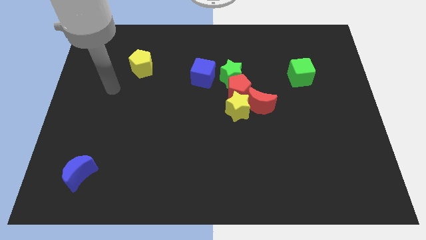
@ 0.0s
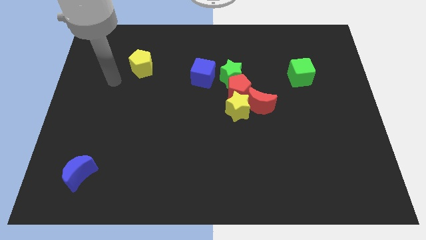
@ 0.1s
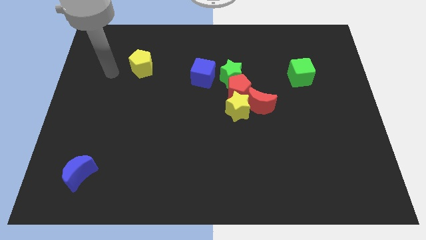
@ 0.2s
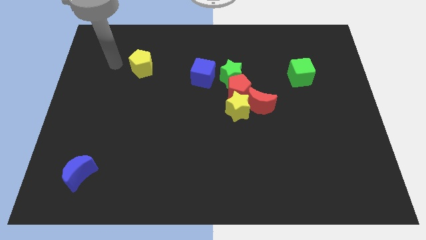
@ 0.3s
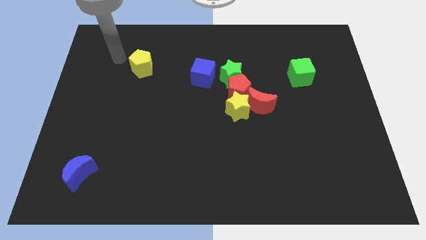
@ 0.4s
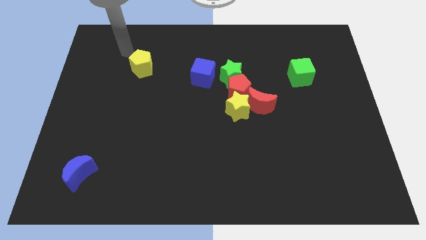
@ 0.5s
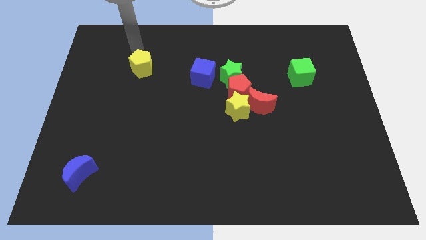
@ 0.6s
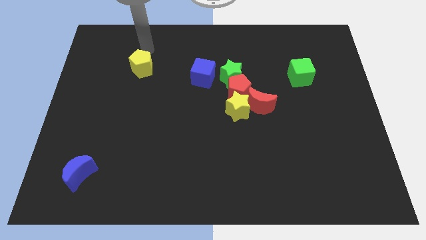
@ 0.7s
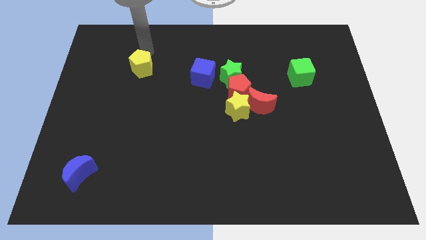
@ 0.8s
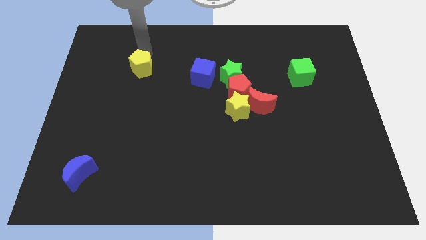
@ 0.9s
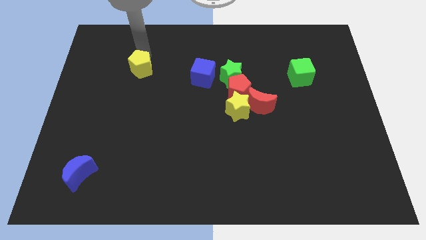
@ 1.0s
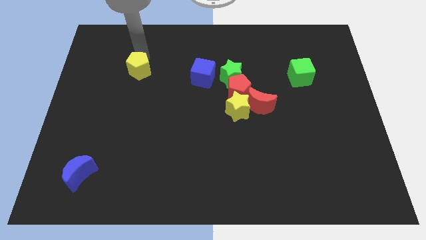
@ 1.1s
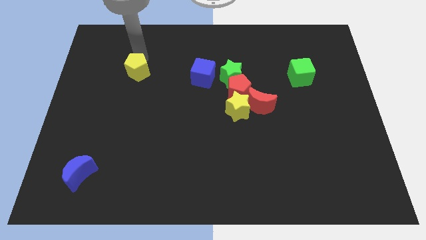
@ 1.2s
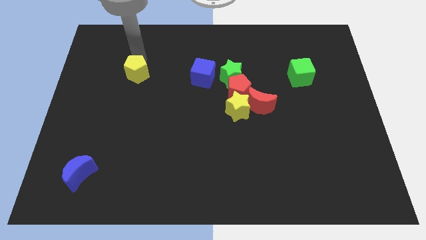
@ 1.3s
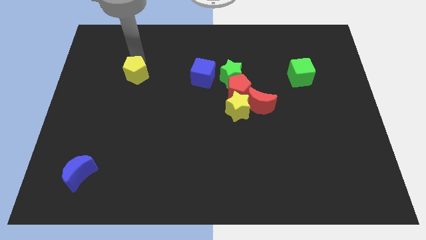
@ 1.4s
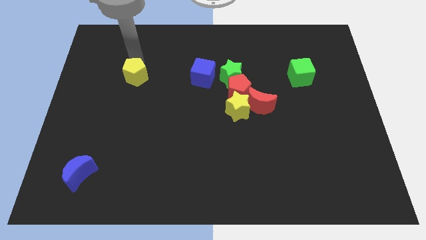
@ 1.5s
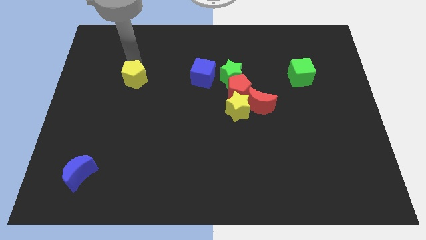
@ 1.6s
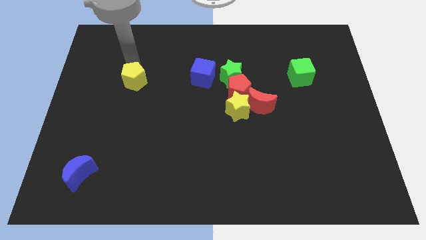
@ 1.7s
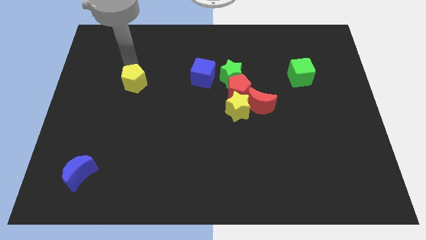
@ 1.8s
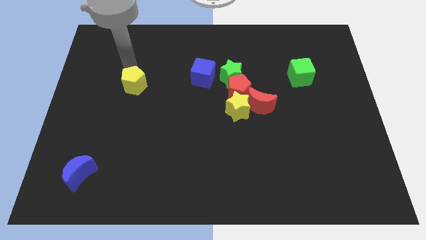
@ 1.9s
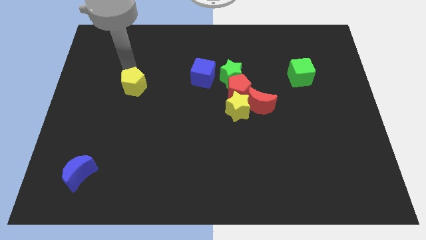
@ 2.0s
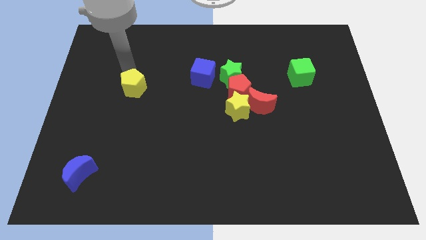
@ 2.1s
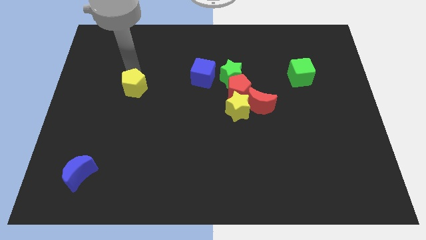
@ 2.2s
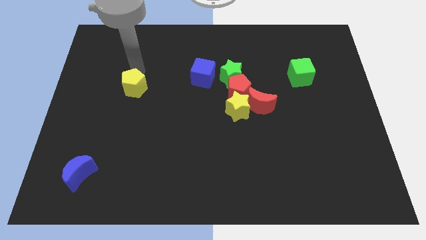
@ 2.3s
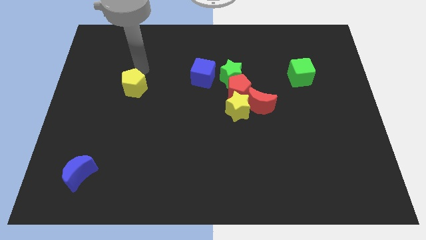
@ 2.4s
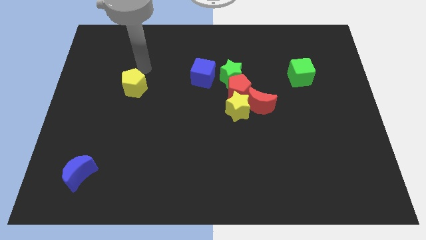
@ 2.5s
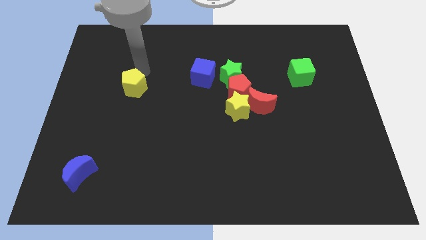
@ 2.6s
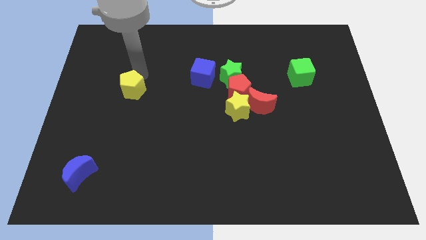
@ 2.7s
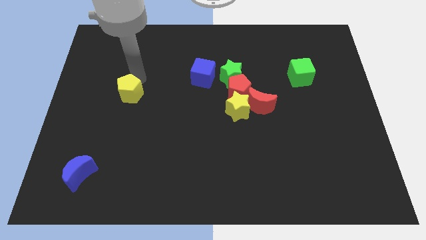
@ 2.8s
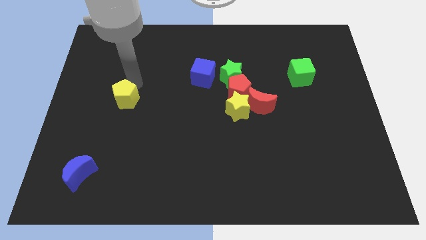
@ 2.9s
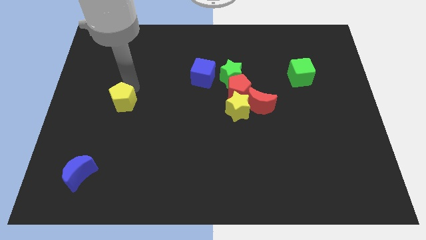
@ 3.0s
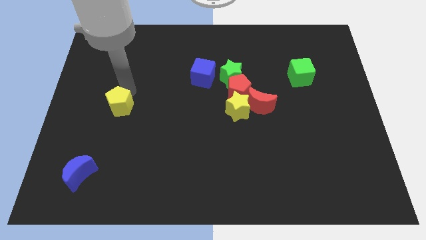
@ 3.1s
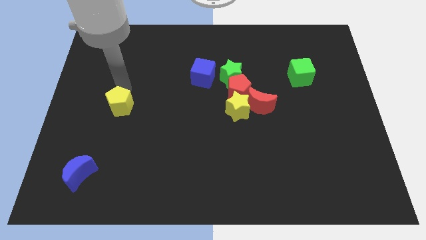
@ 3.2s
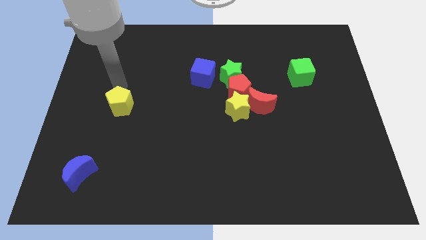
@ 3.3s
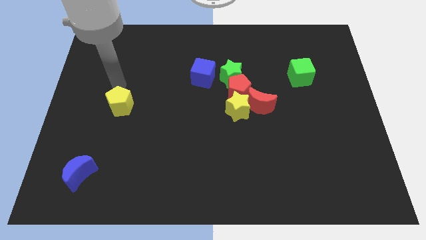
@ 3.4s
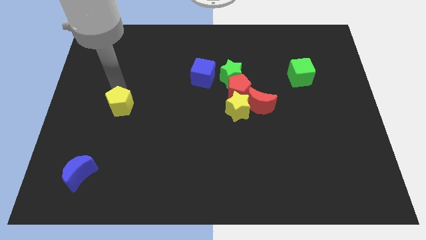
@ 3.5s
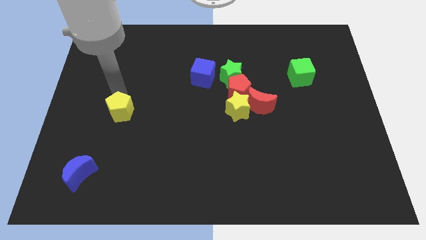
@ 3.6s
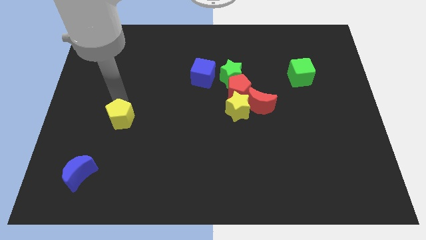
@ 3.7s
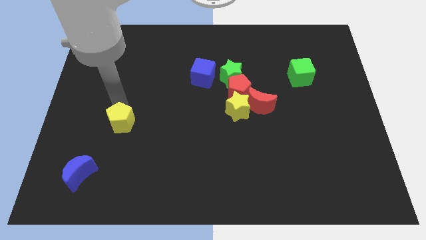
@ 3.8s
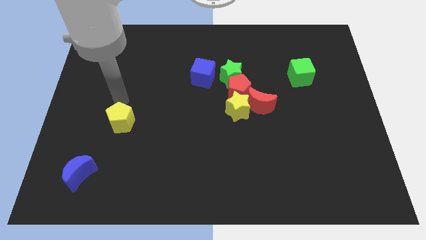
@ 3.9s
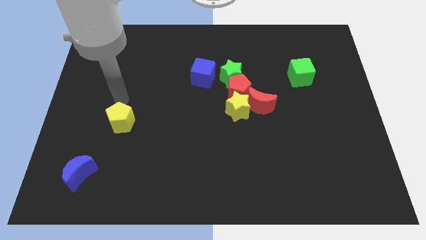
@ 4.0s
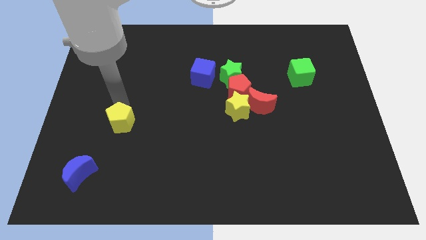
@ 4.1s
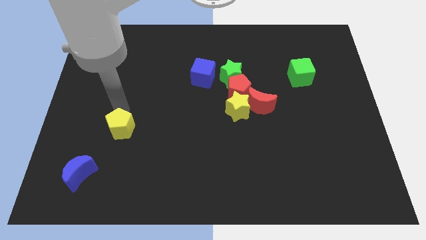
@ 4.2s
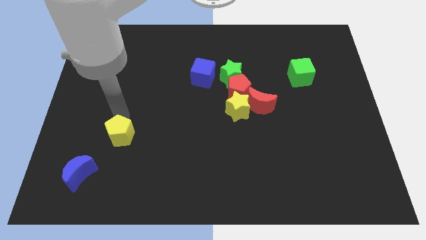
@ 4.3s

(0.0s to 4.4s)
push the yellow pentagon down

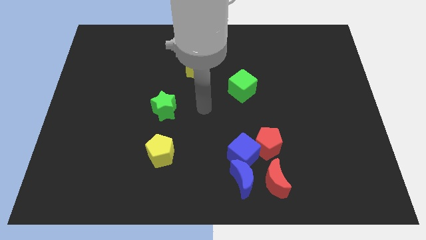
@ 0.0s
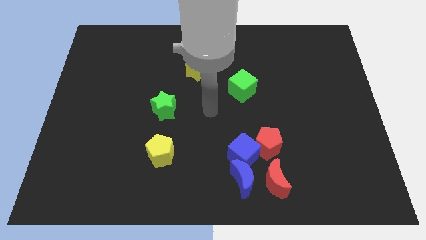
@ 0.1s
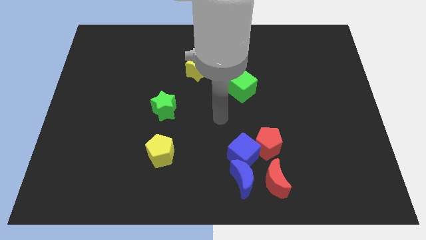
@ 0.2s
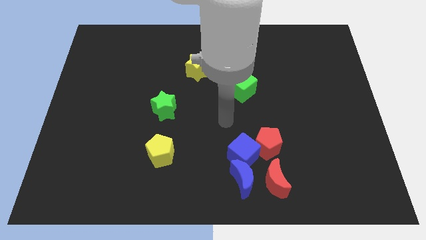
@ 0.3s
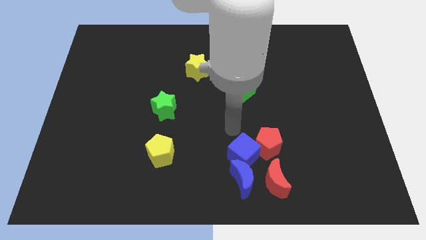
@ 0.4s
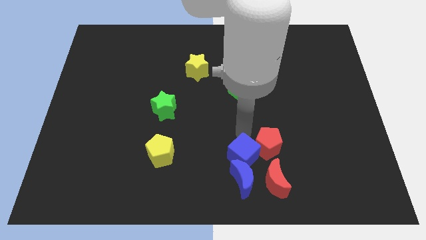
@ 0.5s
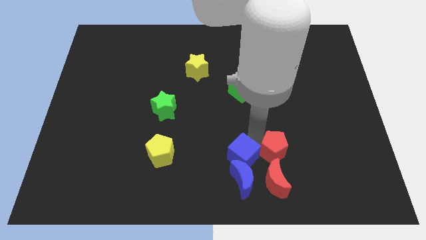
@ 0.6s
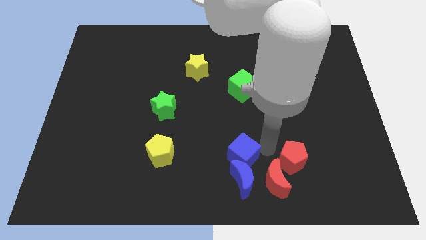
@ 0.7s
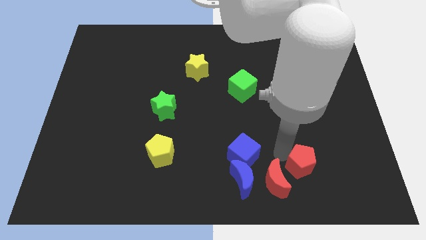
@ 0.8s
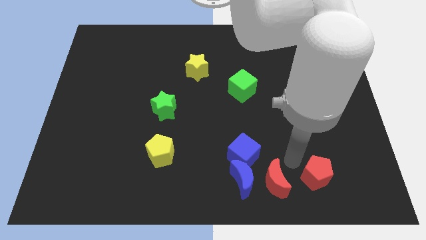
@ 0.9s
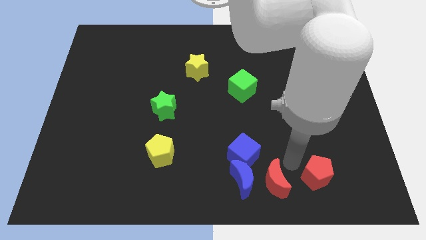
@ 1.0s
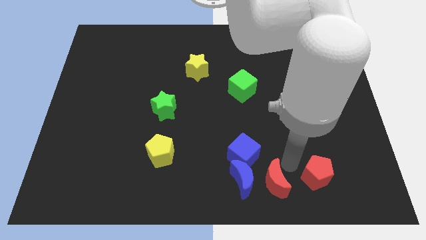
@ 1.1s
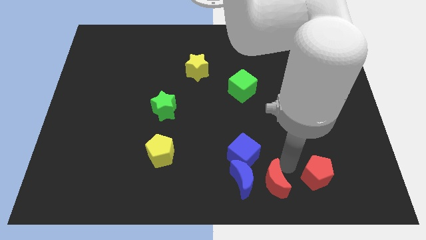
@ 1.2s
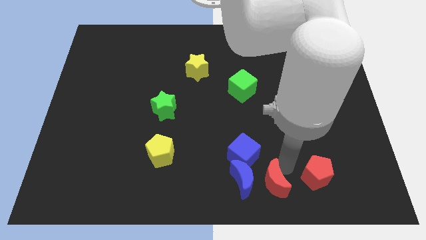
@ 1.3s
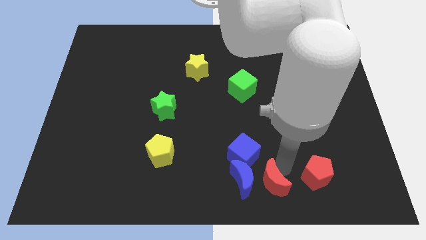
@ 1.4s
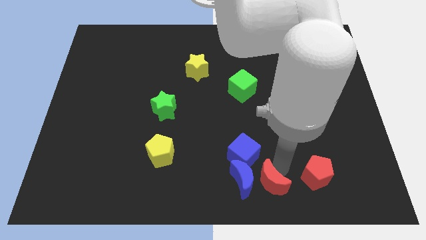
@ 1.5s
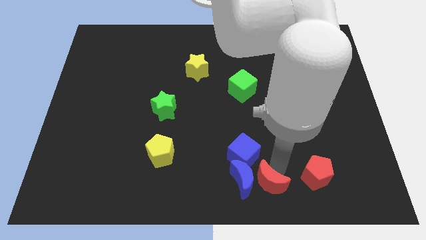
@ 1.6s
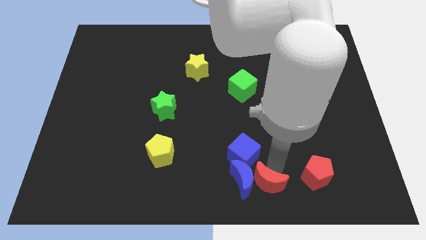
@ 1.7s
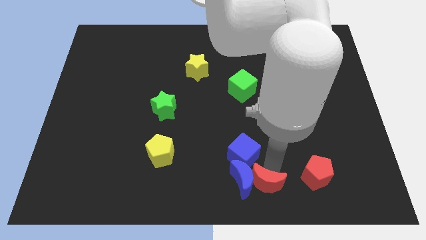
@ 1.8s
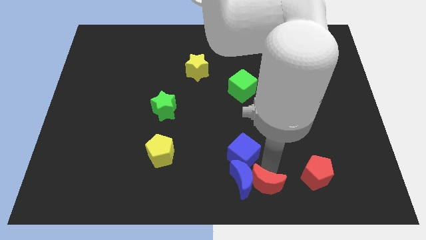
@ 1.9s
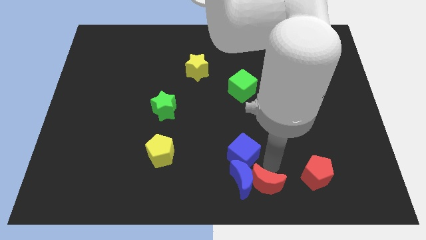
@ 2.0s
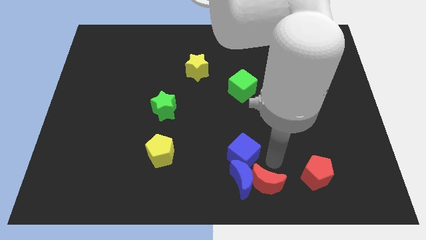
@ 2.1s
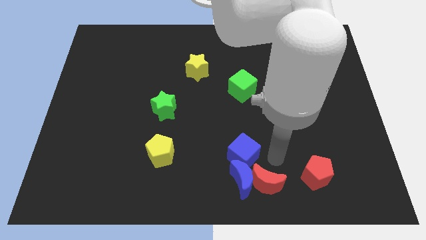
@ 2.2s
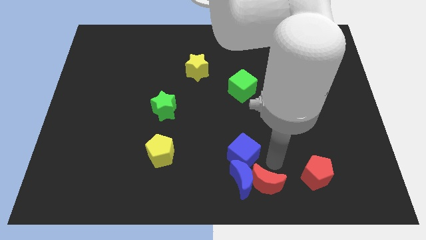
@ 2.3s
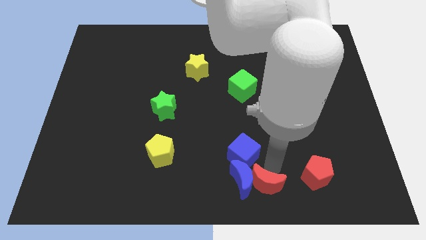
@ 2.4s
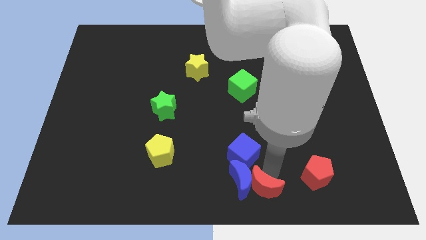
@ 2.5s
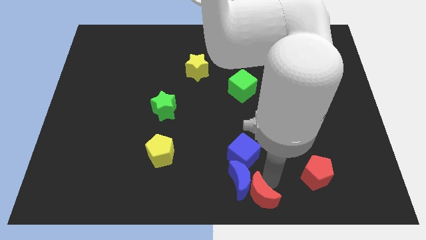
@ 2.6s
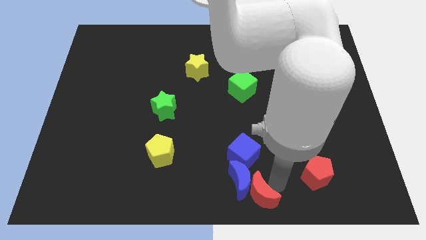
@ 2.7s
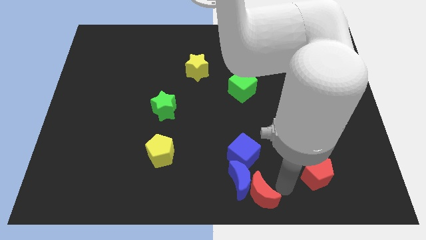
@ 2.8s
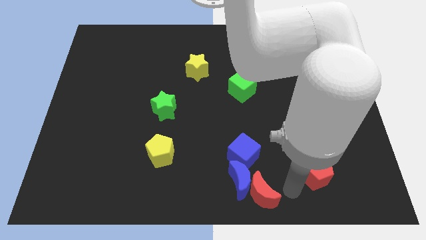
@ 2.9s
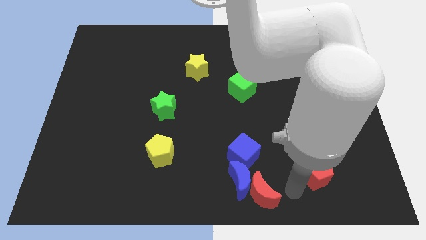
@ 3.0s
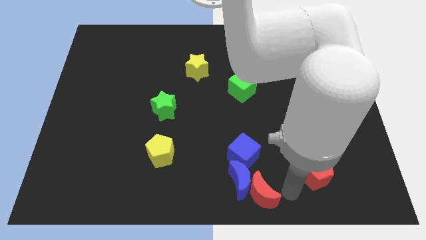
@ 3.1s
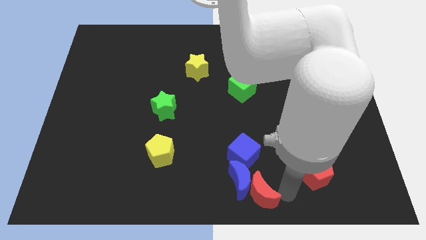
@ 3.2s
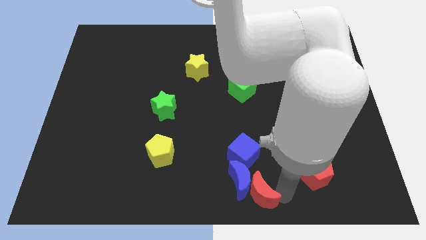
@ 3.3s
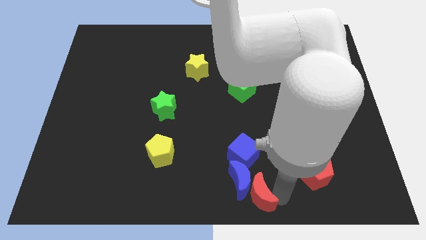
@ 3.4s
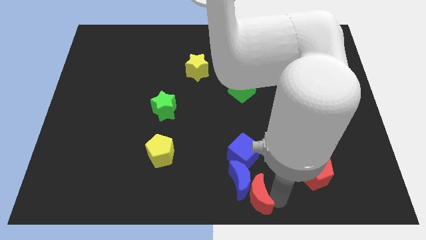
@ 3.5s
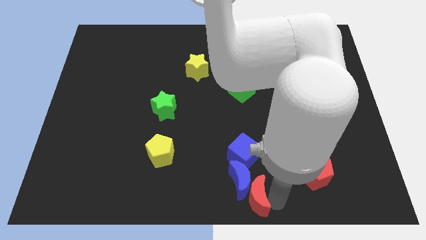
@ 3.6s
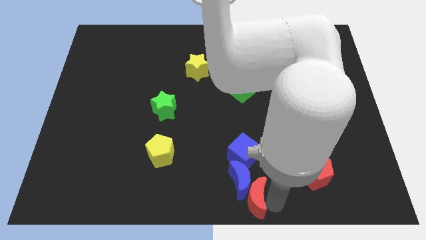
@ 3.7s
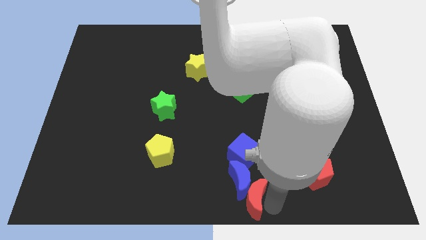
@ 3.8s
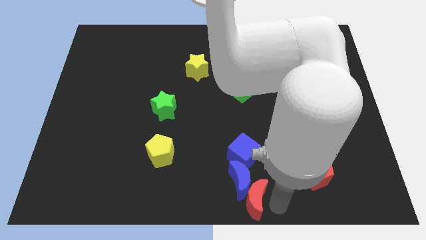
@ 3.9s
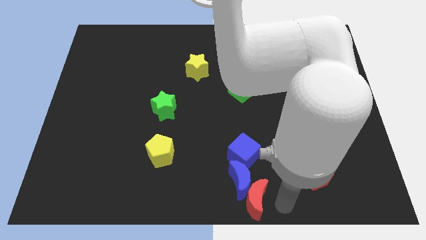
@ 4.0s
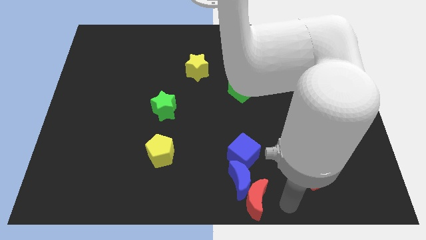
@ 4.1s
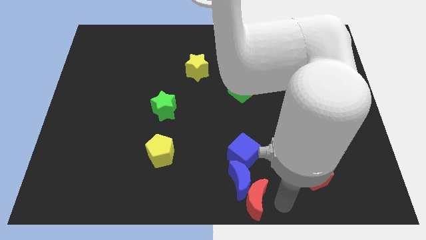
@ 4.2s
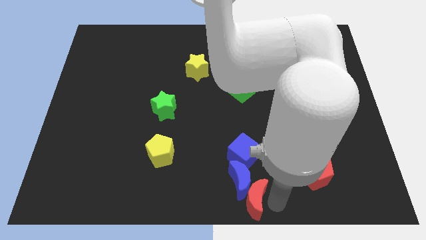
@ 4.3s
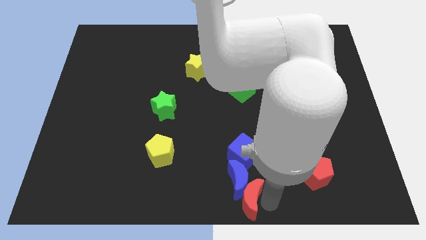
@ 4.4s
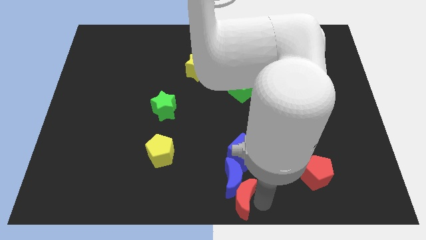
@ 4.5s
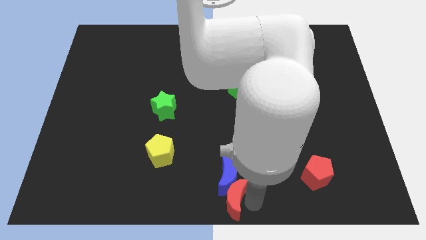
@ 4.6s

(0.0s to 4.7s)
push the red moon a little left
